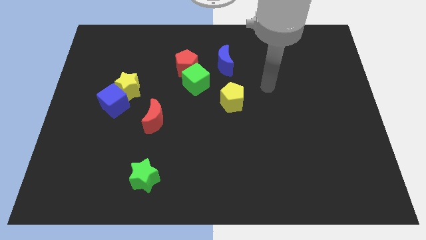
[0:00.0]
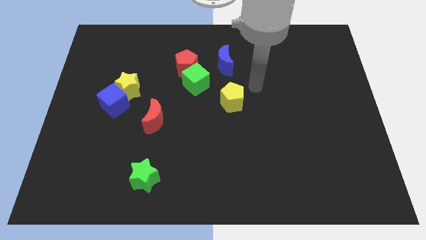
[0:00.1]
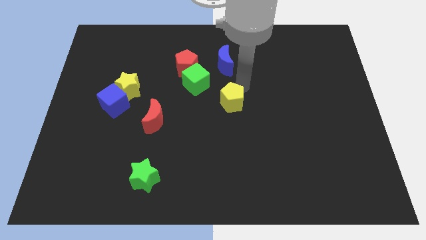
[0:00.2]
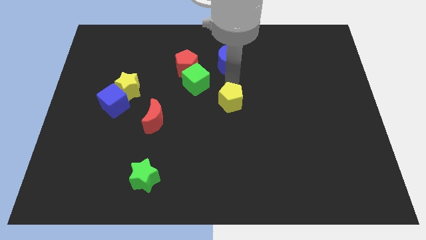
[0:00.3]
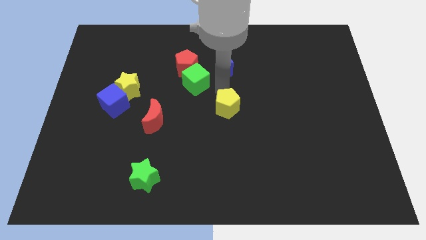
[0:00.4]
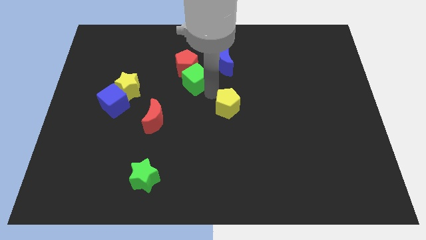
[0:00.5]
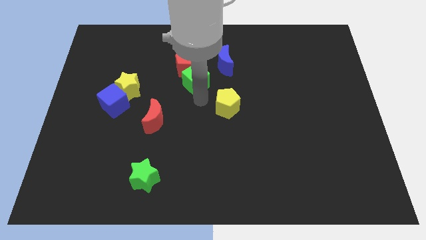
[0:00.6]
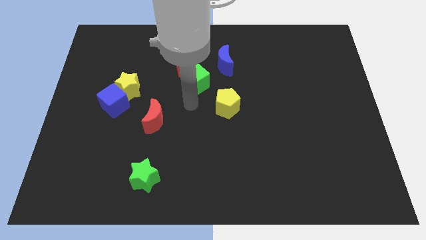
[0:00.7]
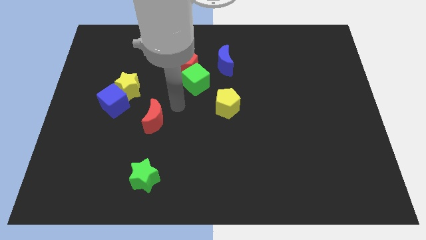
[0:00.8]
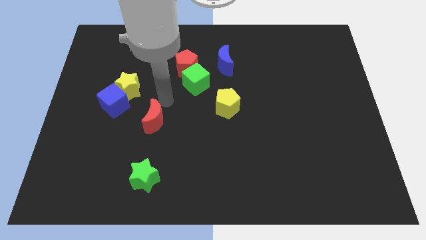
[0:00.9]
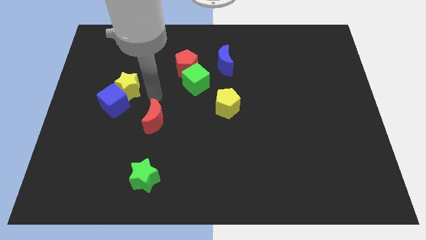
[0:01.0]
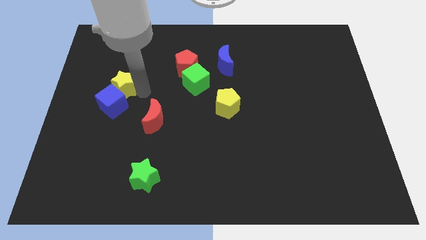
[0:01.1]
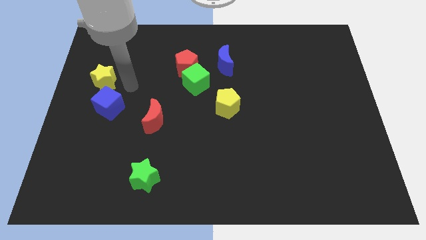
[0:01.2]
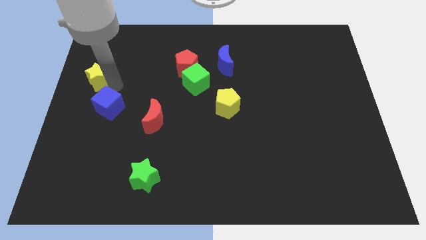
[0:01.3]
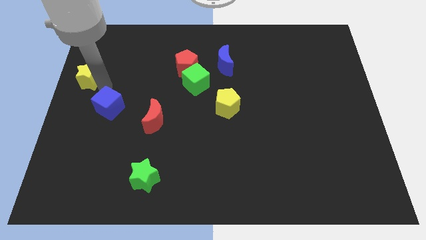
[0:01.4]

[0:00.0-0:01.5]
move the blue cube away from the yellow star

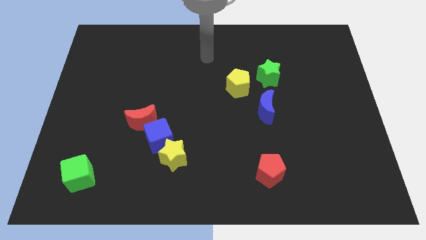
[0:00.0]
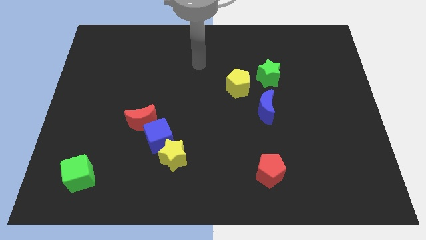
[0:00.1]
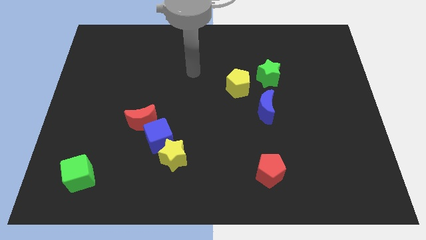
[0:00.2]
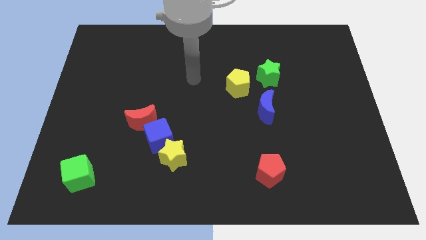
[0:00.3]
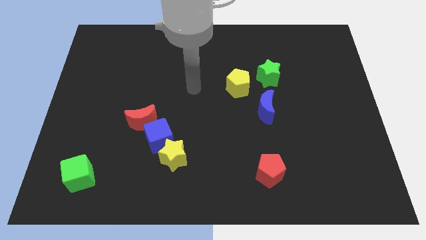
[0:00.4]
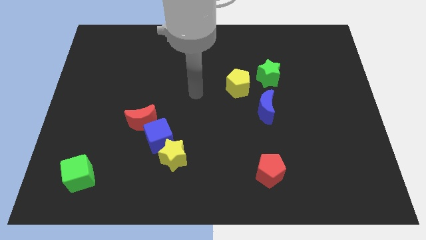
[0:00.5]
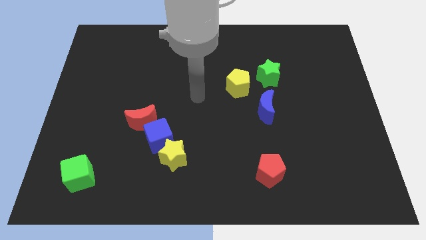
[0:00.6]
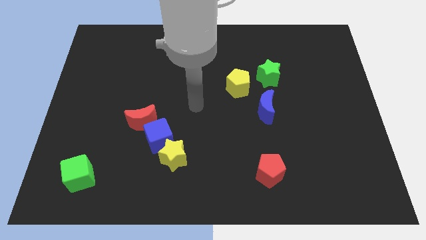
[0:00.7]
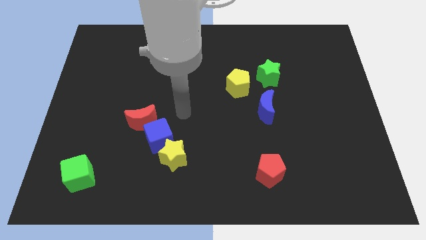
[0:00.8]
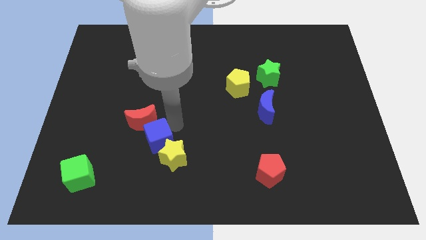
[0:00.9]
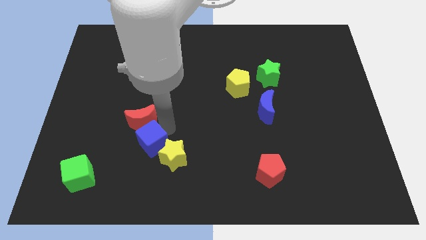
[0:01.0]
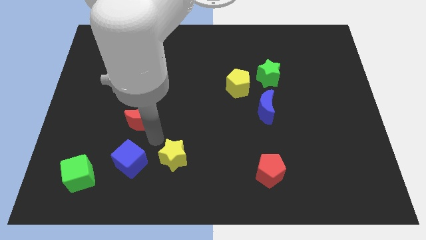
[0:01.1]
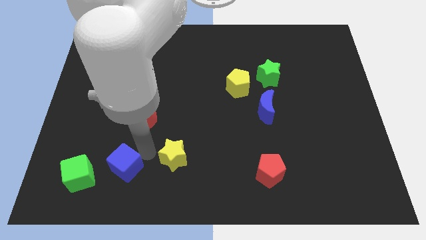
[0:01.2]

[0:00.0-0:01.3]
separate the yellow star from the blue cube

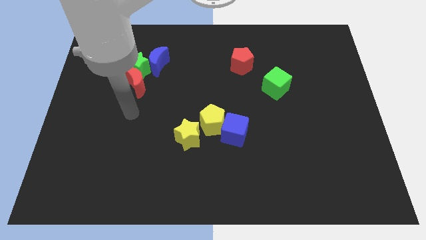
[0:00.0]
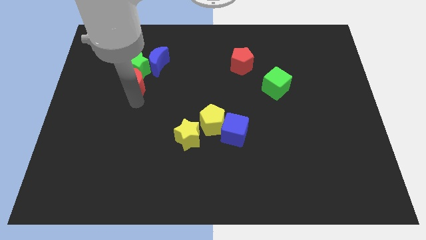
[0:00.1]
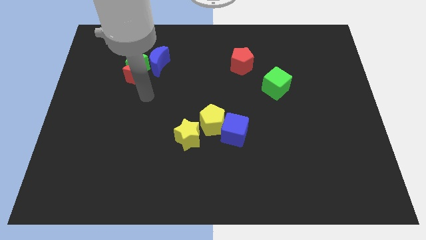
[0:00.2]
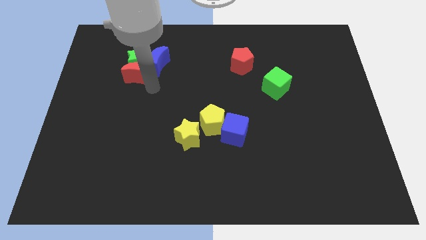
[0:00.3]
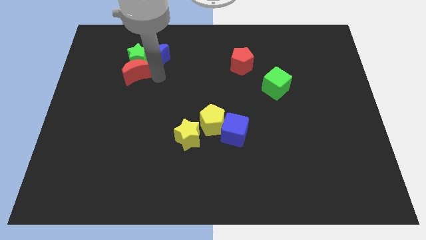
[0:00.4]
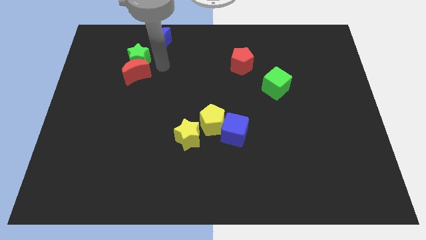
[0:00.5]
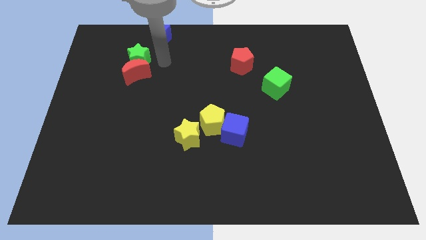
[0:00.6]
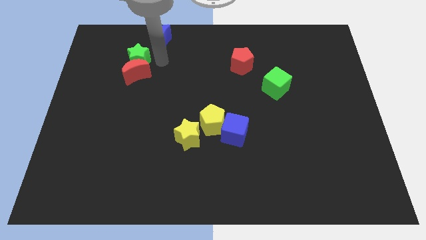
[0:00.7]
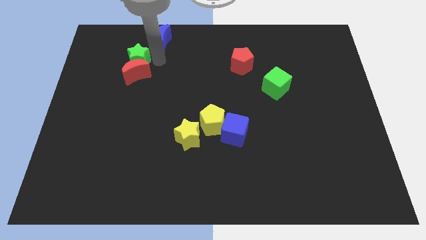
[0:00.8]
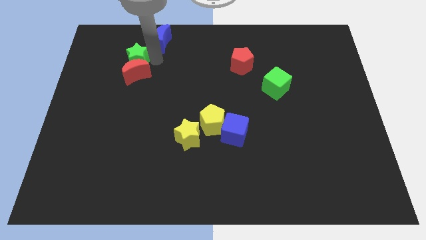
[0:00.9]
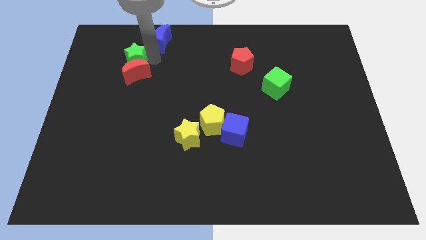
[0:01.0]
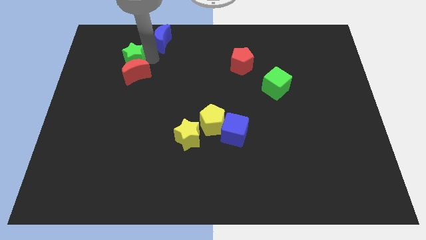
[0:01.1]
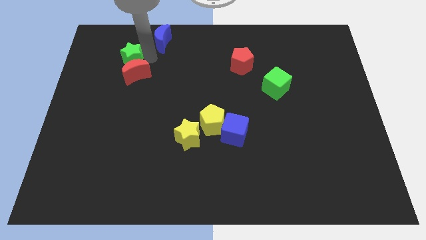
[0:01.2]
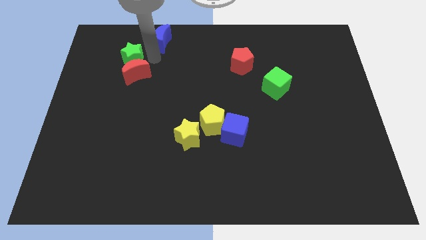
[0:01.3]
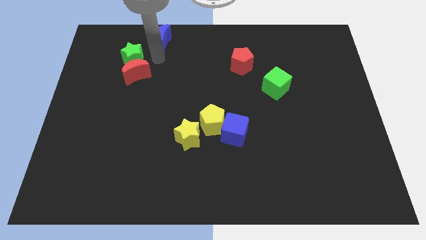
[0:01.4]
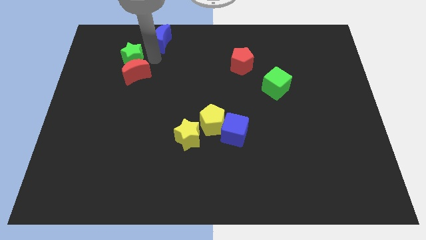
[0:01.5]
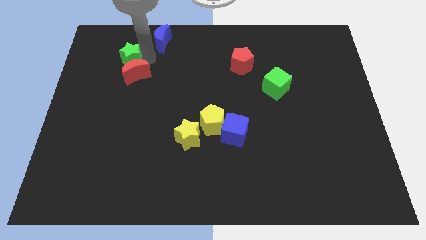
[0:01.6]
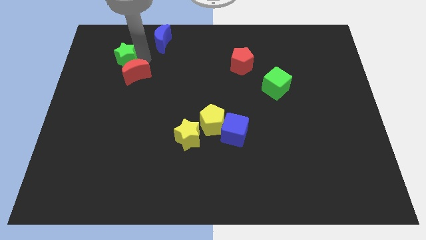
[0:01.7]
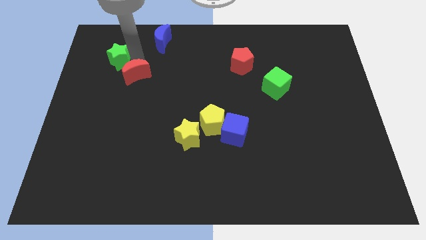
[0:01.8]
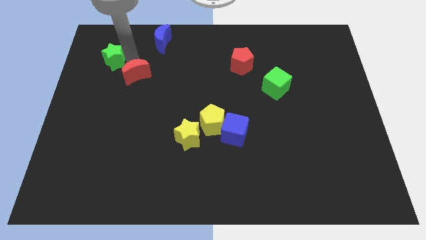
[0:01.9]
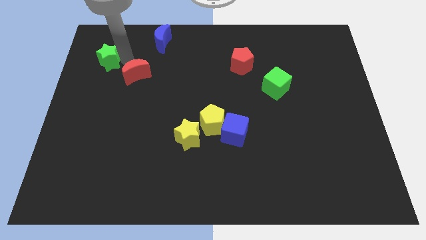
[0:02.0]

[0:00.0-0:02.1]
separate the green star from the red moon and blue moon

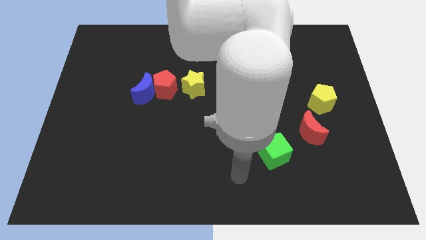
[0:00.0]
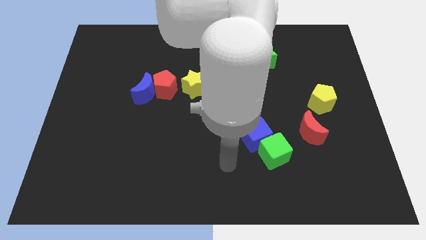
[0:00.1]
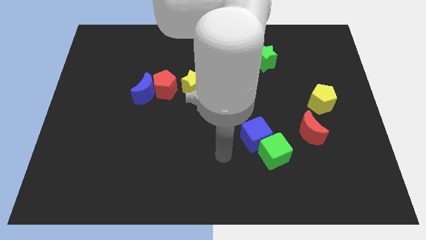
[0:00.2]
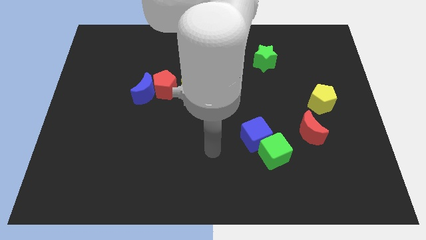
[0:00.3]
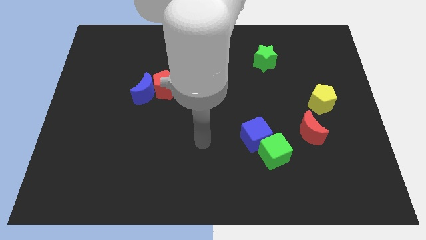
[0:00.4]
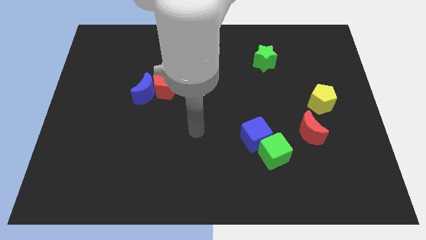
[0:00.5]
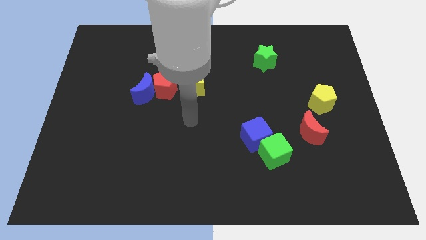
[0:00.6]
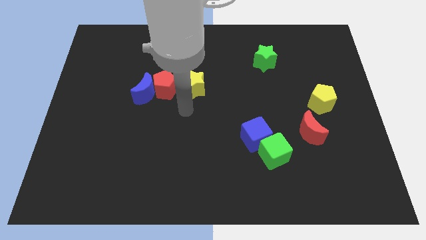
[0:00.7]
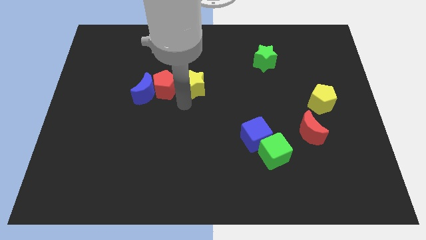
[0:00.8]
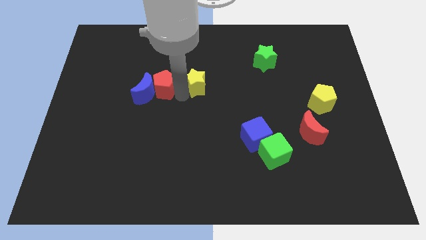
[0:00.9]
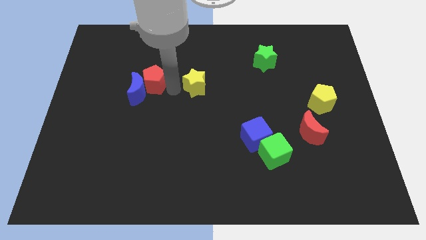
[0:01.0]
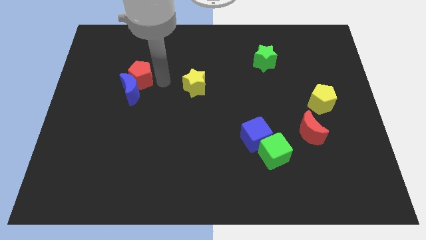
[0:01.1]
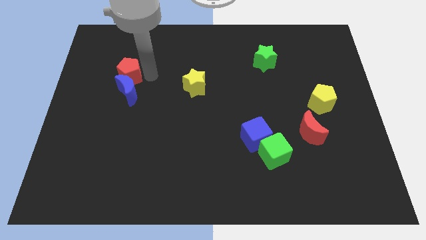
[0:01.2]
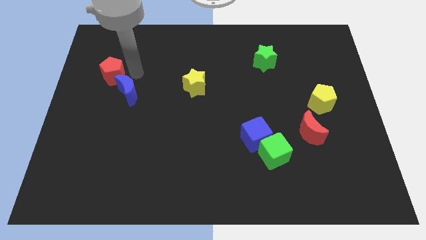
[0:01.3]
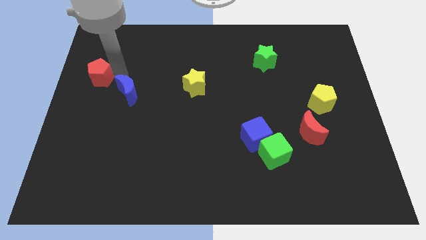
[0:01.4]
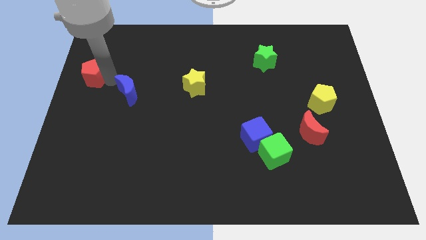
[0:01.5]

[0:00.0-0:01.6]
move the blue moon away from the red pentagon

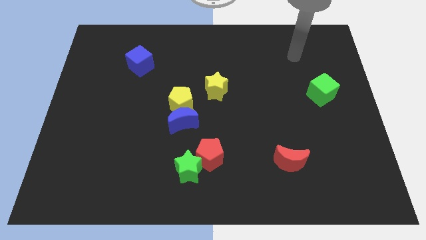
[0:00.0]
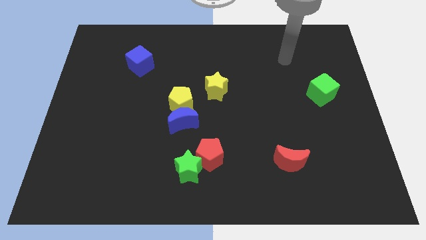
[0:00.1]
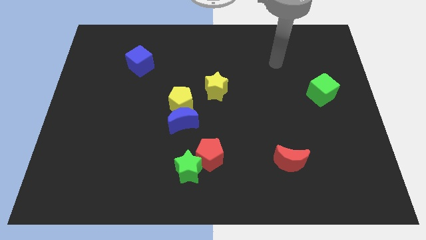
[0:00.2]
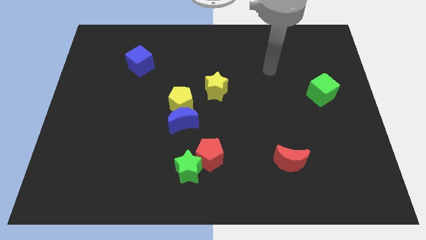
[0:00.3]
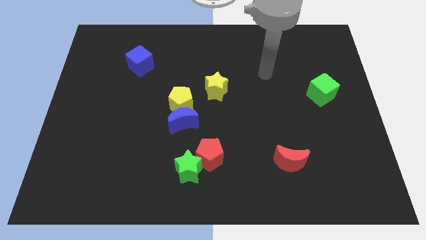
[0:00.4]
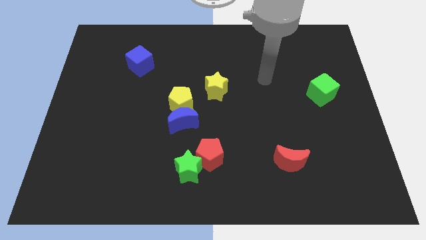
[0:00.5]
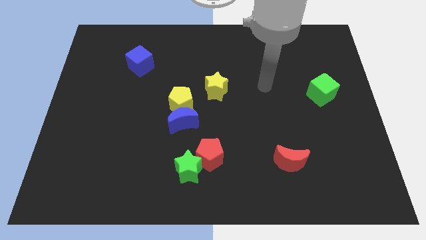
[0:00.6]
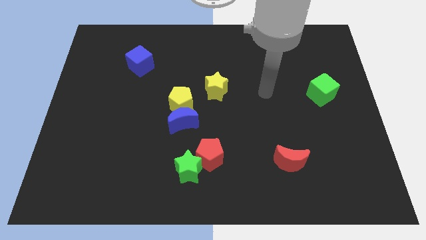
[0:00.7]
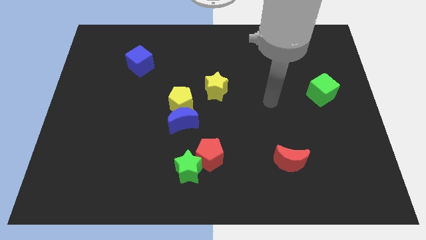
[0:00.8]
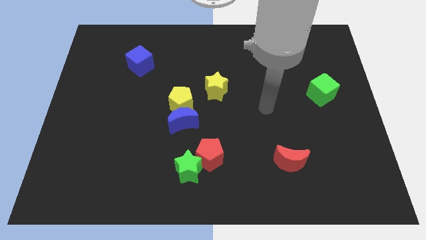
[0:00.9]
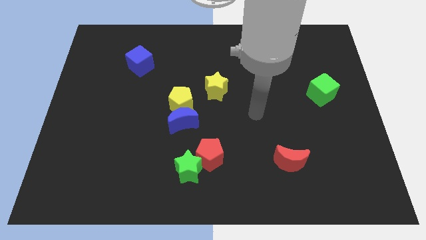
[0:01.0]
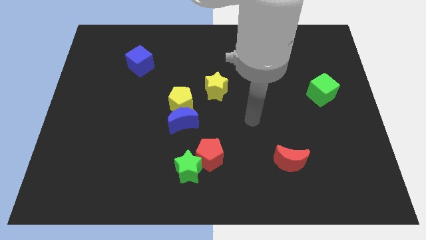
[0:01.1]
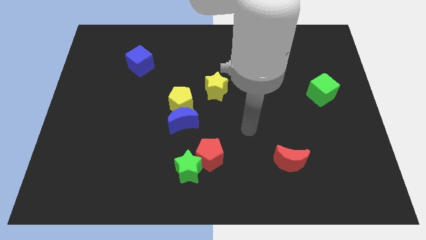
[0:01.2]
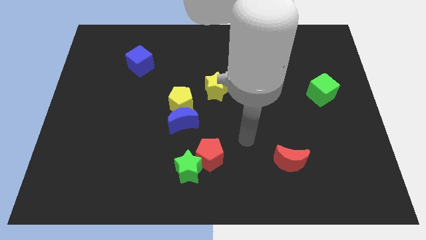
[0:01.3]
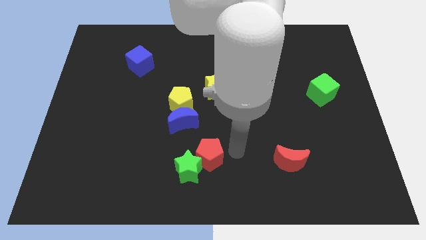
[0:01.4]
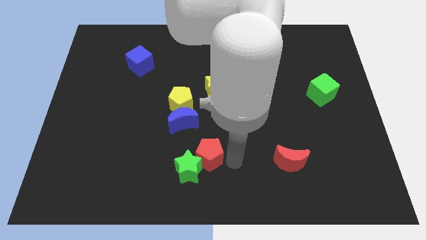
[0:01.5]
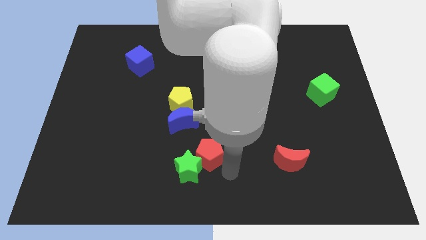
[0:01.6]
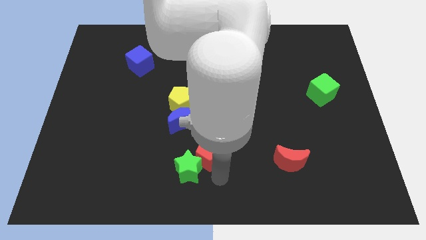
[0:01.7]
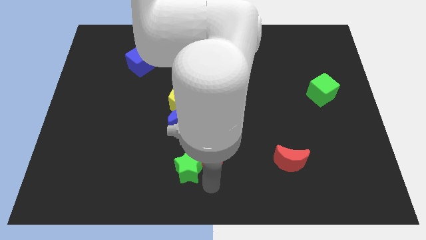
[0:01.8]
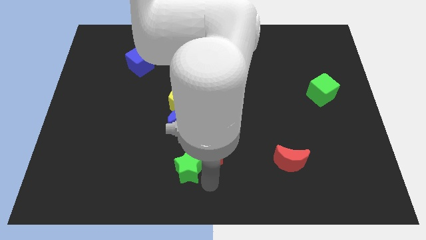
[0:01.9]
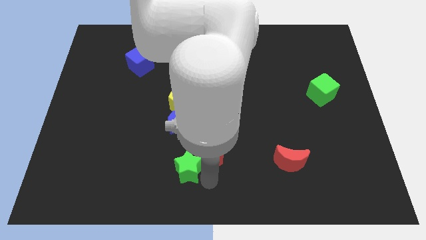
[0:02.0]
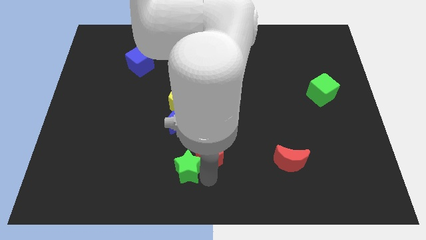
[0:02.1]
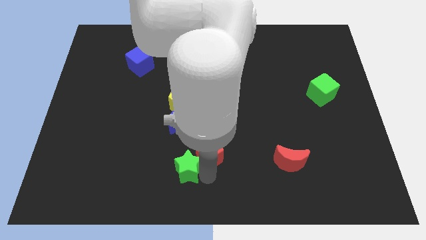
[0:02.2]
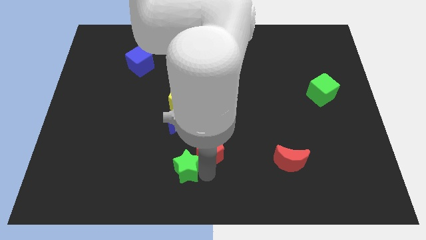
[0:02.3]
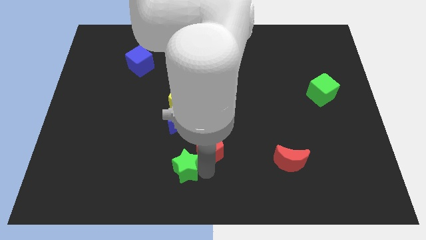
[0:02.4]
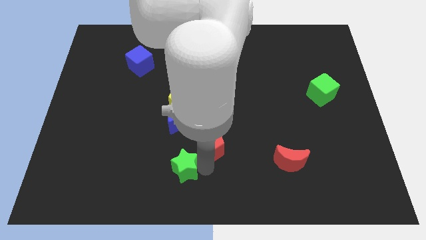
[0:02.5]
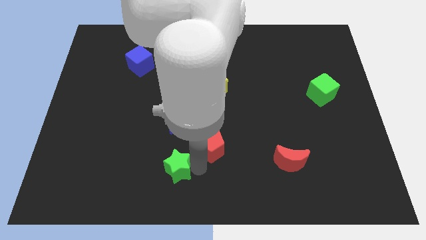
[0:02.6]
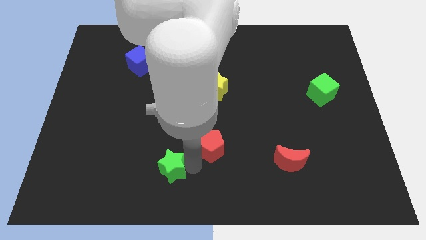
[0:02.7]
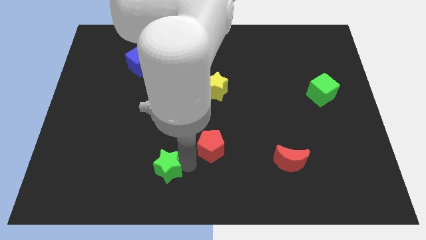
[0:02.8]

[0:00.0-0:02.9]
separate the red pentagon from the green star
